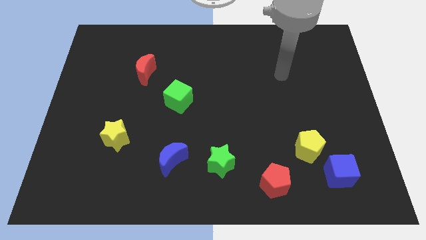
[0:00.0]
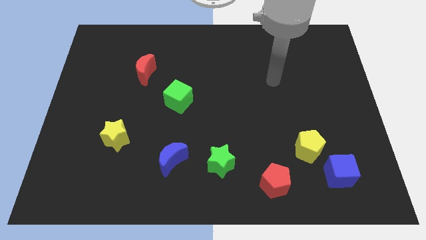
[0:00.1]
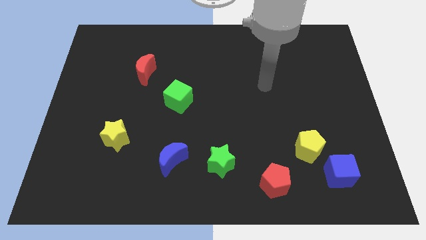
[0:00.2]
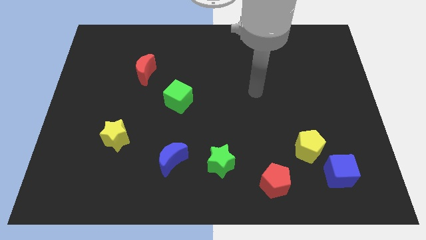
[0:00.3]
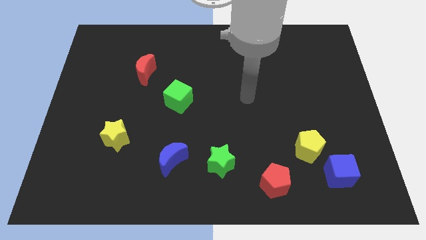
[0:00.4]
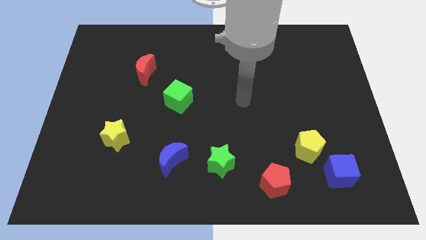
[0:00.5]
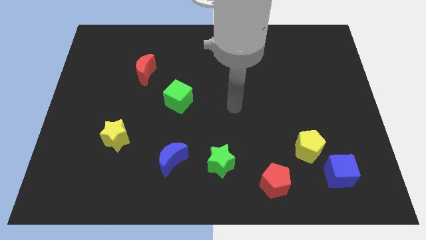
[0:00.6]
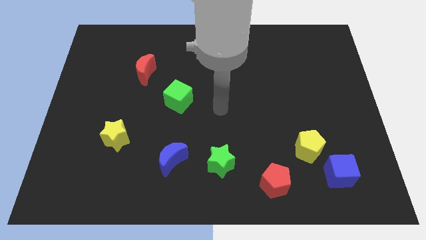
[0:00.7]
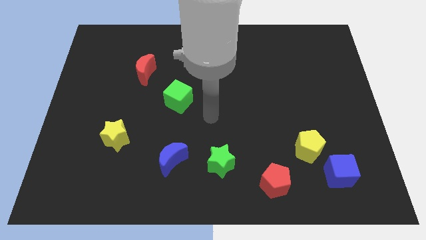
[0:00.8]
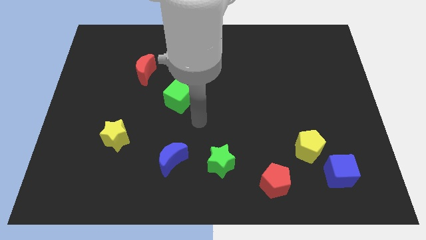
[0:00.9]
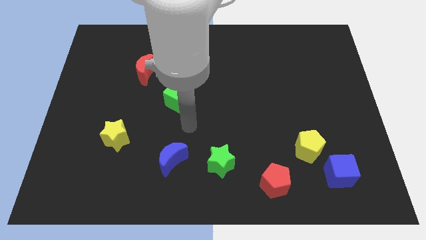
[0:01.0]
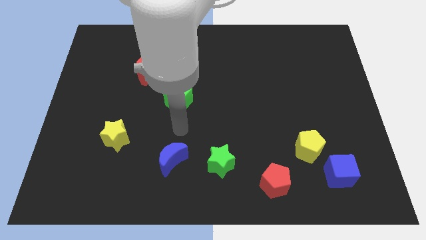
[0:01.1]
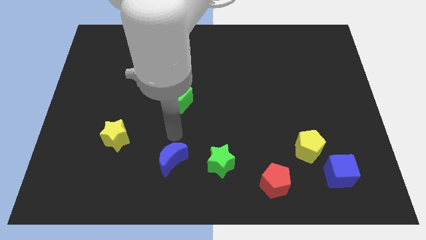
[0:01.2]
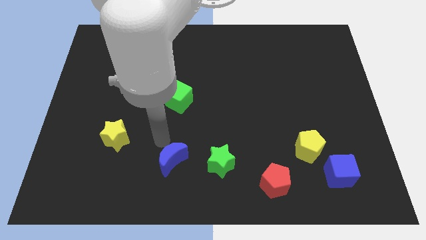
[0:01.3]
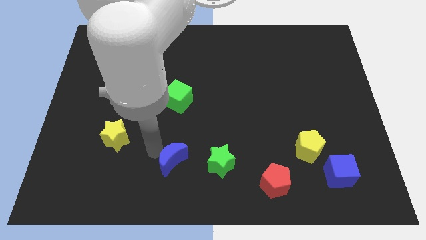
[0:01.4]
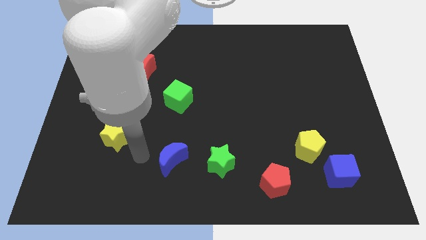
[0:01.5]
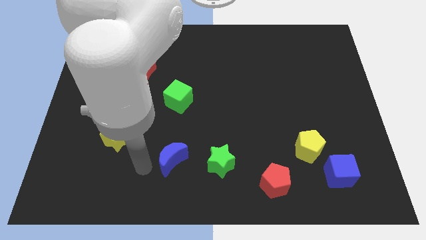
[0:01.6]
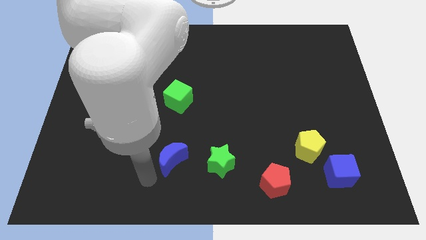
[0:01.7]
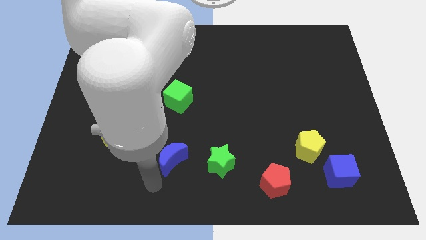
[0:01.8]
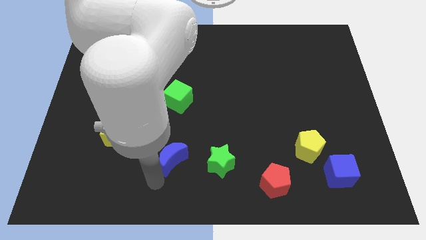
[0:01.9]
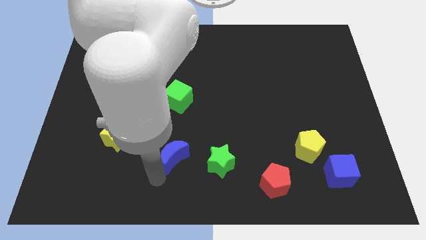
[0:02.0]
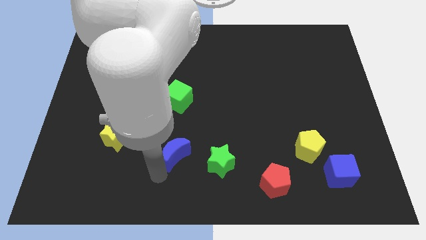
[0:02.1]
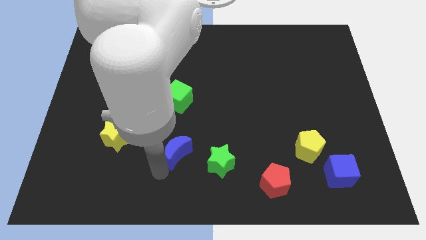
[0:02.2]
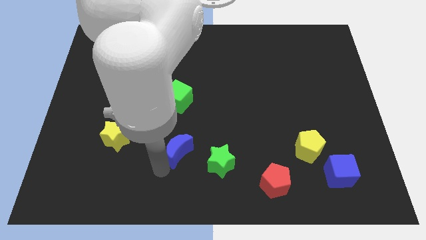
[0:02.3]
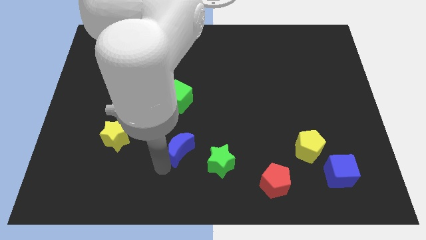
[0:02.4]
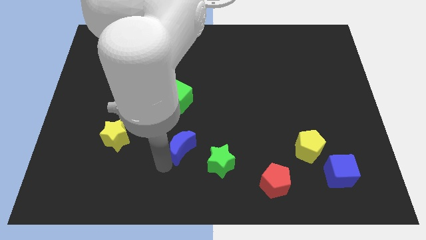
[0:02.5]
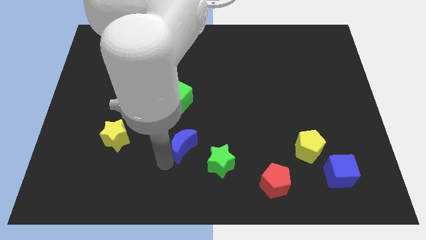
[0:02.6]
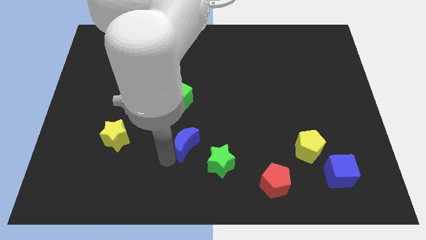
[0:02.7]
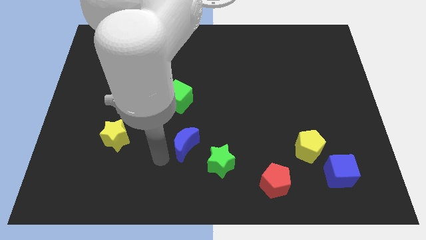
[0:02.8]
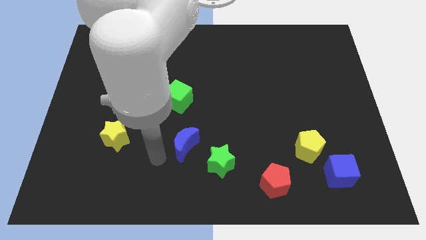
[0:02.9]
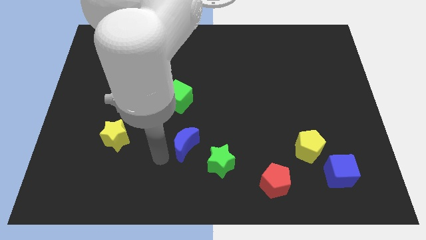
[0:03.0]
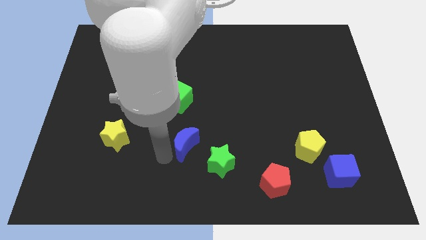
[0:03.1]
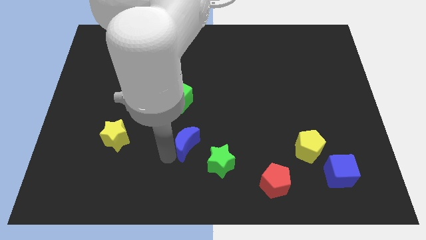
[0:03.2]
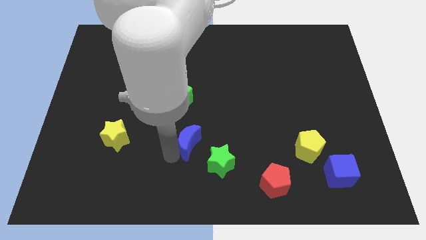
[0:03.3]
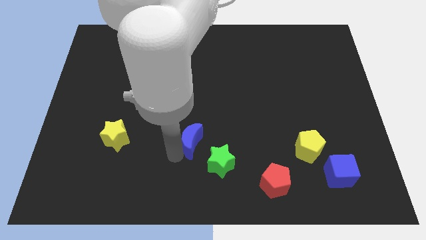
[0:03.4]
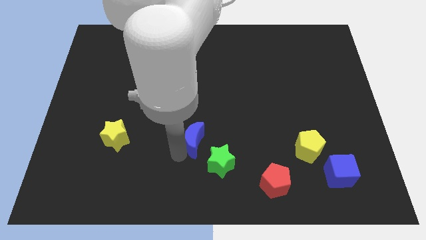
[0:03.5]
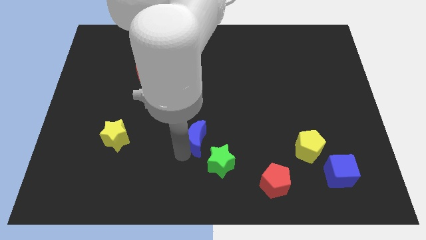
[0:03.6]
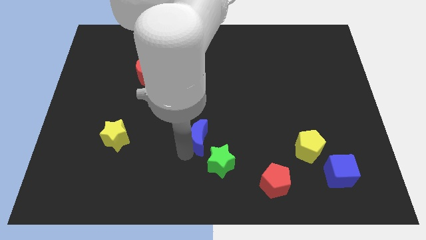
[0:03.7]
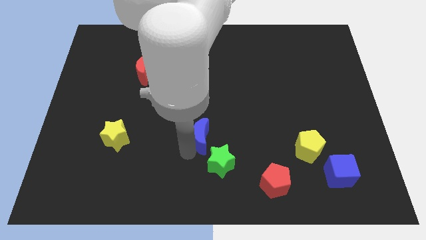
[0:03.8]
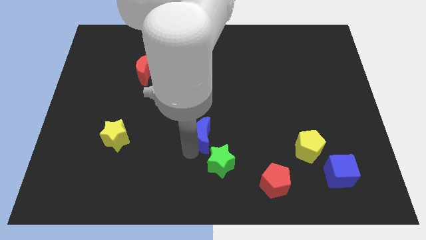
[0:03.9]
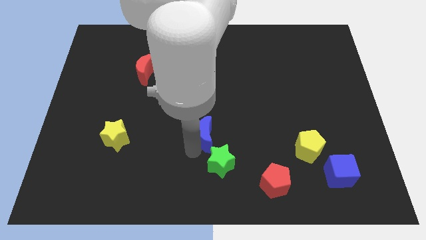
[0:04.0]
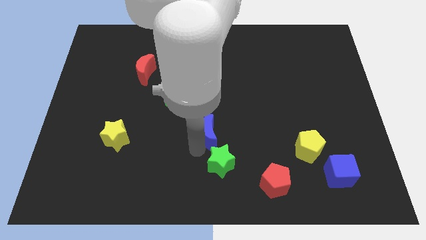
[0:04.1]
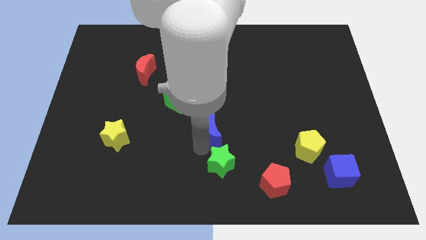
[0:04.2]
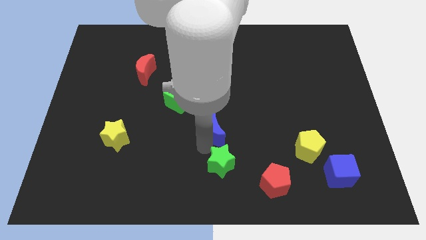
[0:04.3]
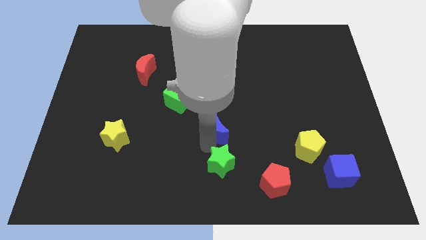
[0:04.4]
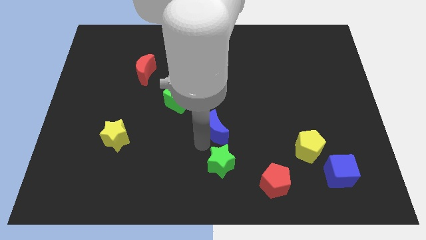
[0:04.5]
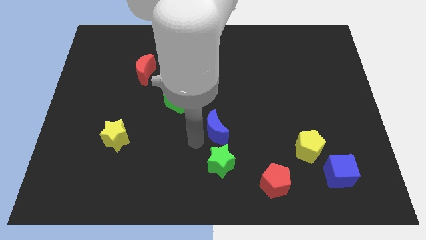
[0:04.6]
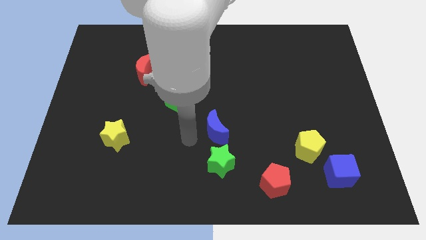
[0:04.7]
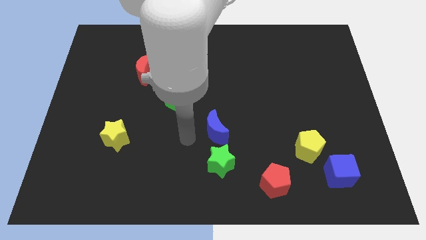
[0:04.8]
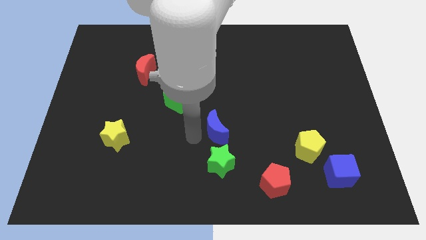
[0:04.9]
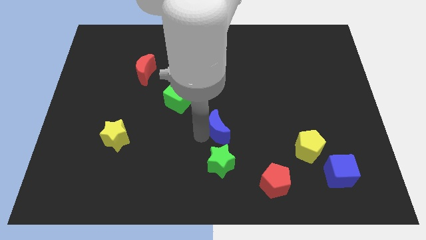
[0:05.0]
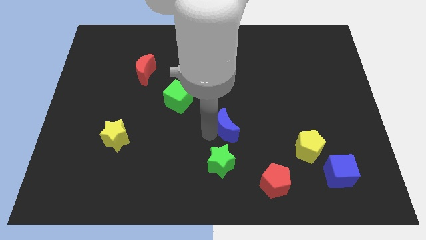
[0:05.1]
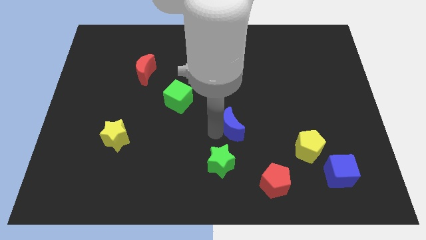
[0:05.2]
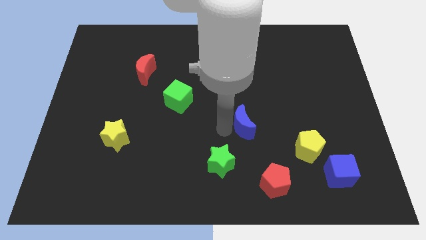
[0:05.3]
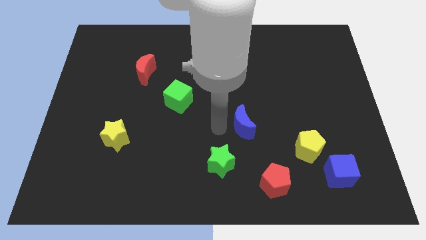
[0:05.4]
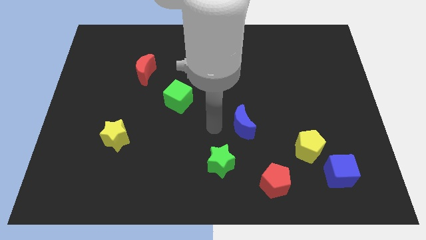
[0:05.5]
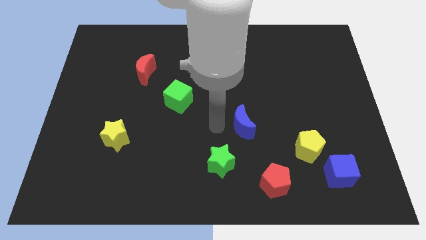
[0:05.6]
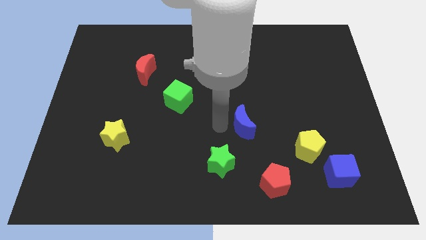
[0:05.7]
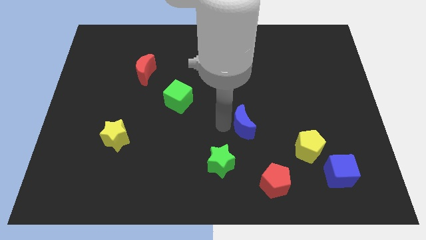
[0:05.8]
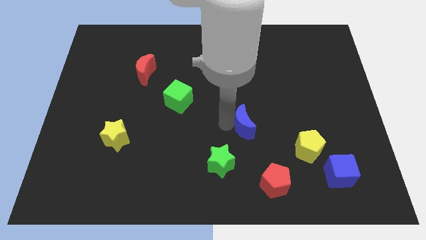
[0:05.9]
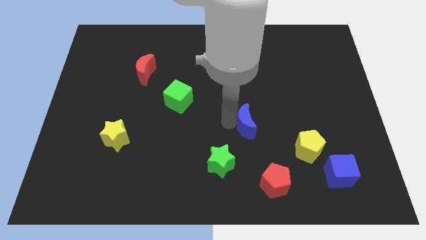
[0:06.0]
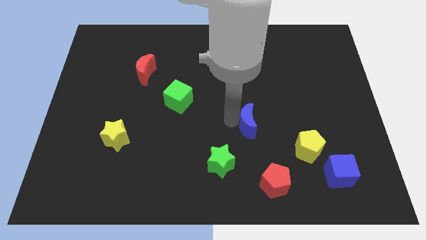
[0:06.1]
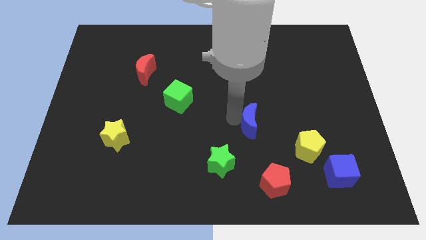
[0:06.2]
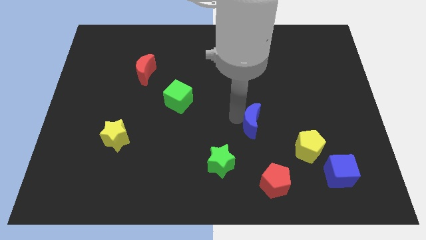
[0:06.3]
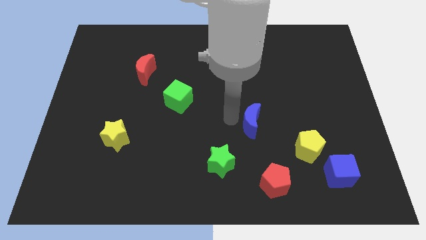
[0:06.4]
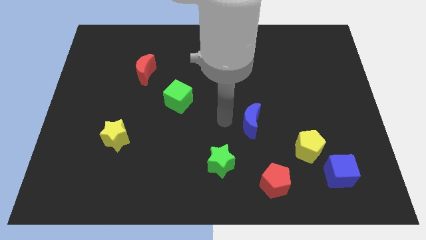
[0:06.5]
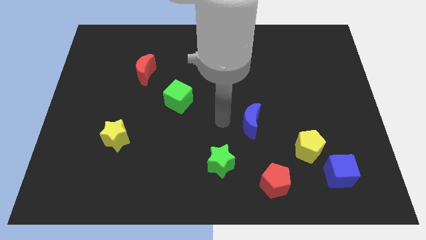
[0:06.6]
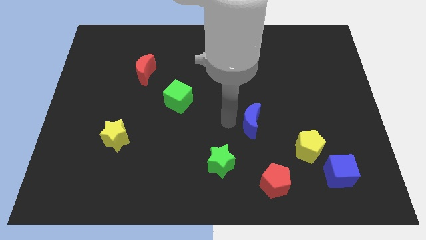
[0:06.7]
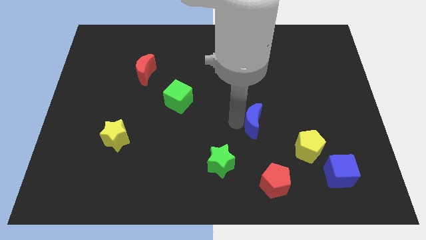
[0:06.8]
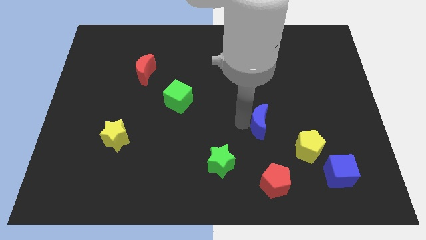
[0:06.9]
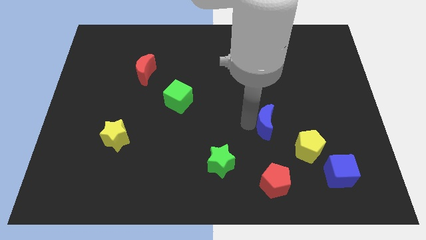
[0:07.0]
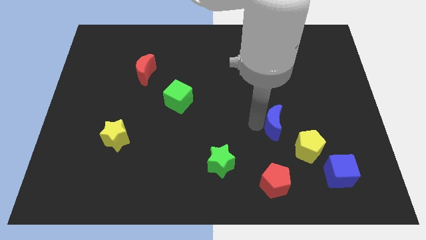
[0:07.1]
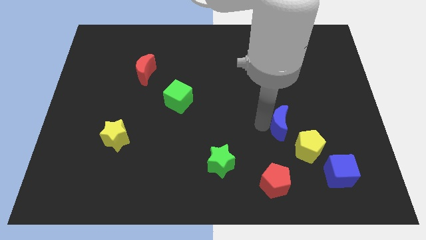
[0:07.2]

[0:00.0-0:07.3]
push the blue moon right

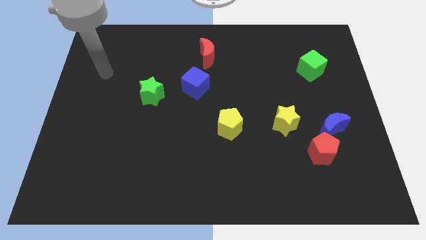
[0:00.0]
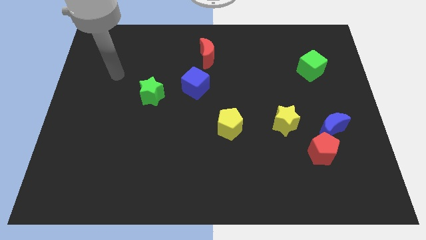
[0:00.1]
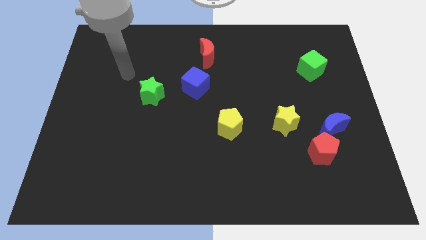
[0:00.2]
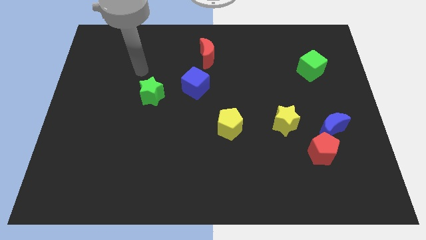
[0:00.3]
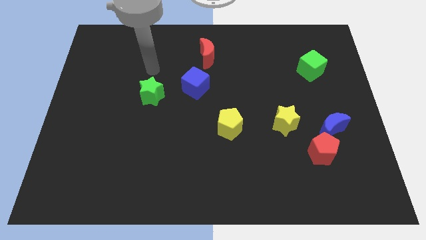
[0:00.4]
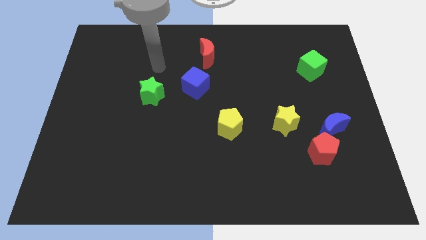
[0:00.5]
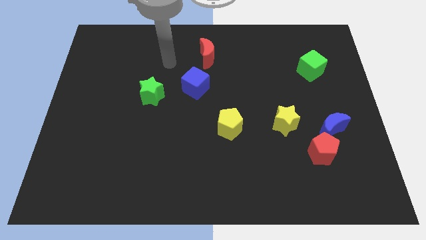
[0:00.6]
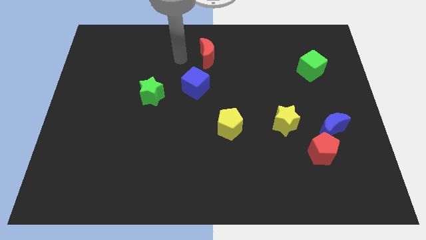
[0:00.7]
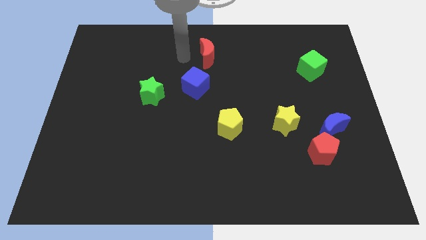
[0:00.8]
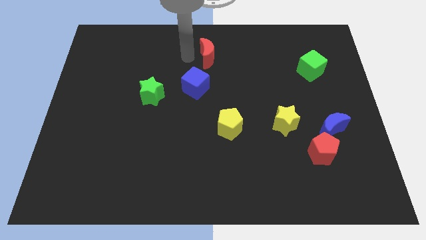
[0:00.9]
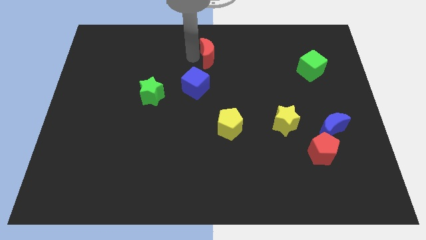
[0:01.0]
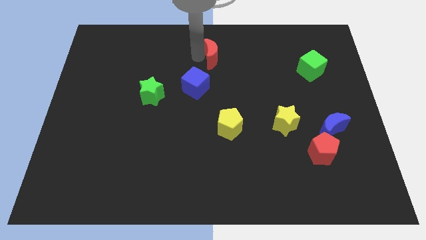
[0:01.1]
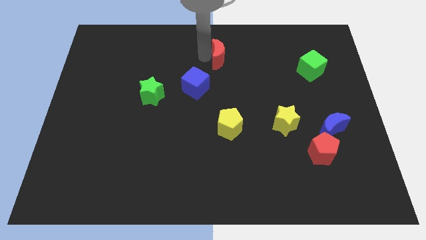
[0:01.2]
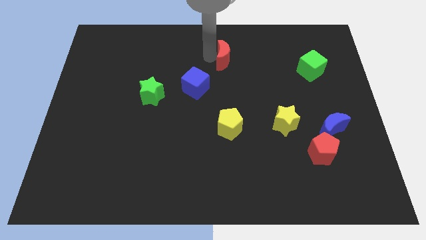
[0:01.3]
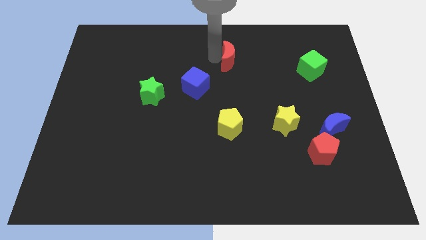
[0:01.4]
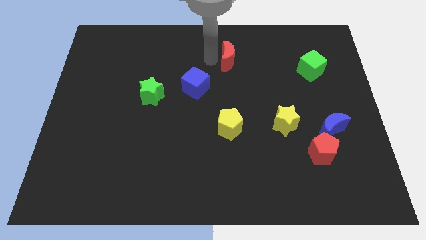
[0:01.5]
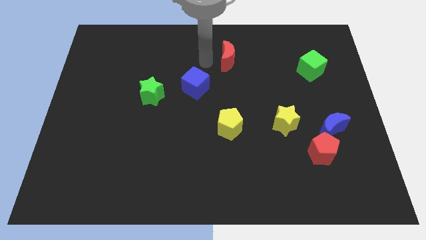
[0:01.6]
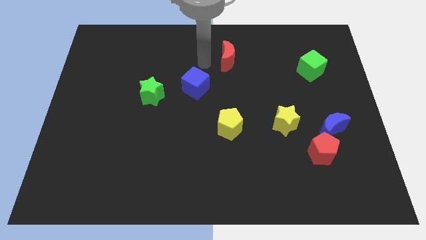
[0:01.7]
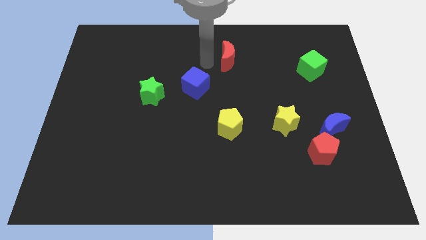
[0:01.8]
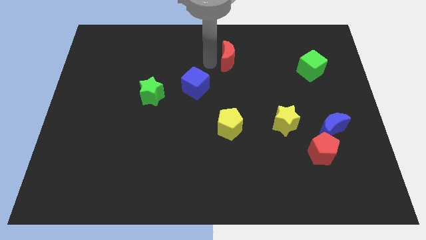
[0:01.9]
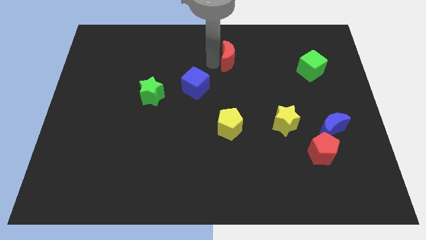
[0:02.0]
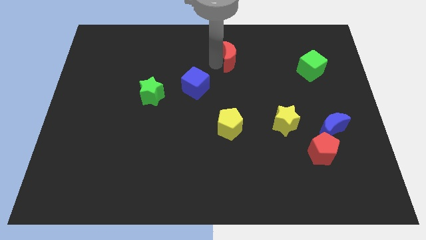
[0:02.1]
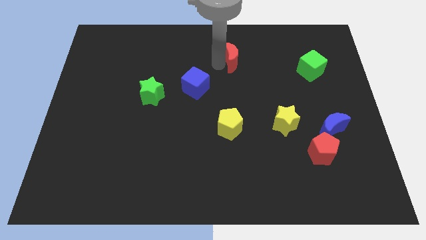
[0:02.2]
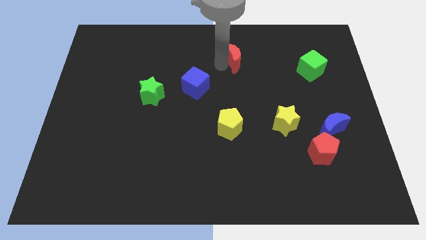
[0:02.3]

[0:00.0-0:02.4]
slightly move the red moon right
